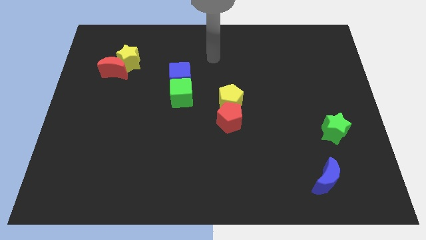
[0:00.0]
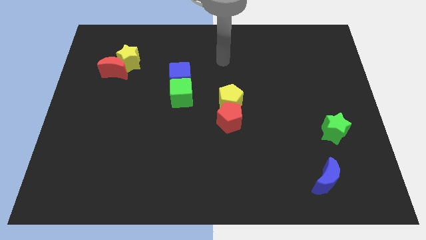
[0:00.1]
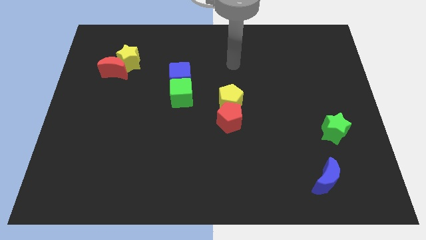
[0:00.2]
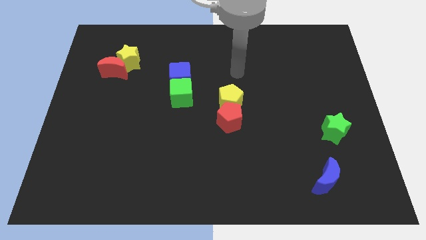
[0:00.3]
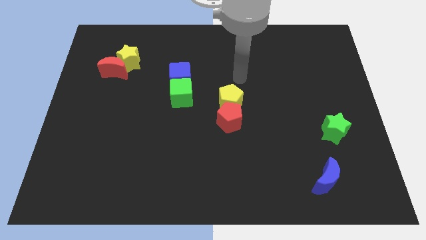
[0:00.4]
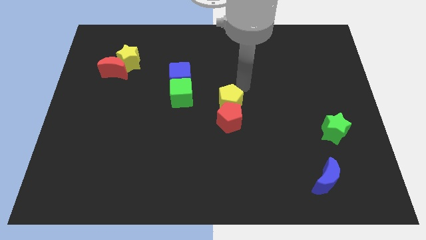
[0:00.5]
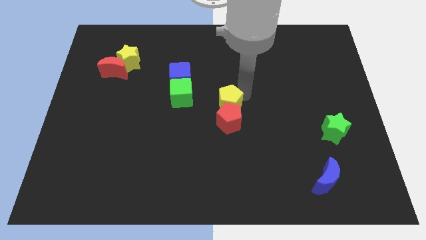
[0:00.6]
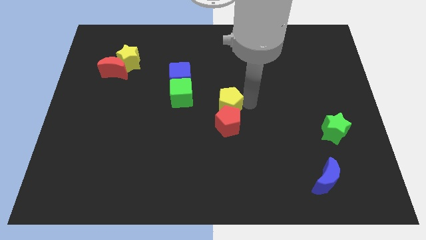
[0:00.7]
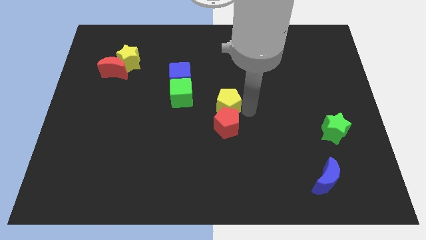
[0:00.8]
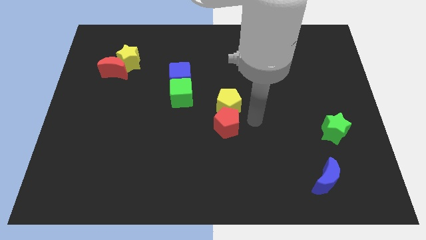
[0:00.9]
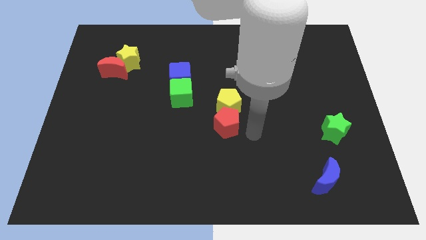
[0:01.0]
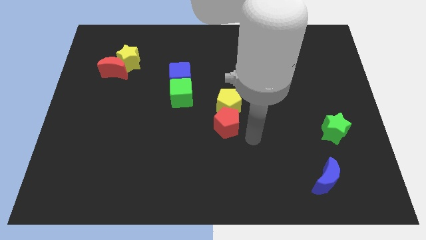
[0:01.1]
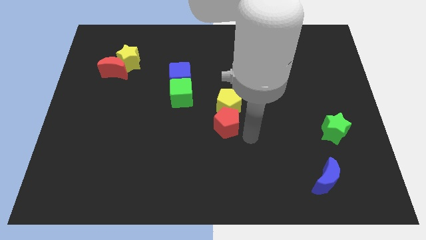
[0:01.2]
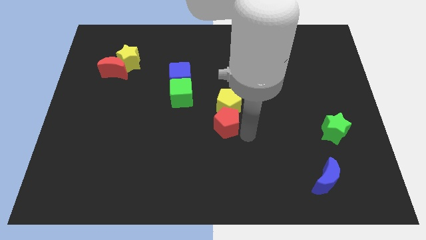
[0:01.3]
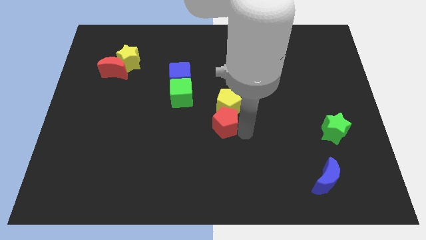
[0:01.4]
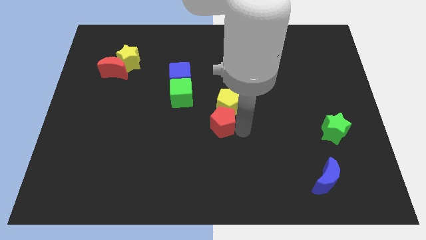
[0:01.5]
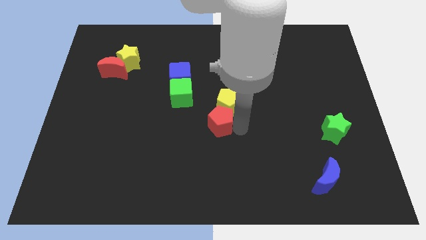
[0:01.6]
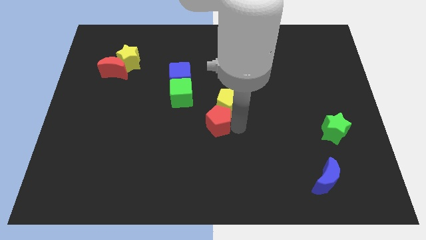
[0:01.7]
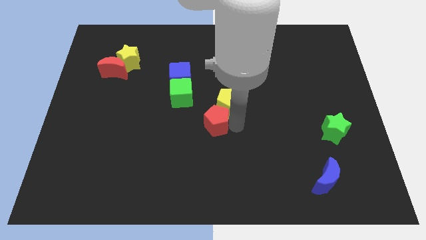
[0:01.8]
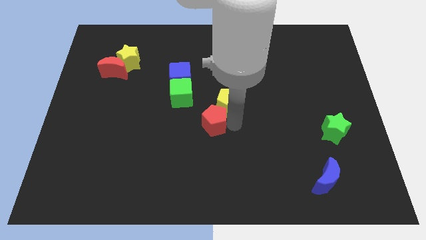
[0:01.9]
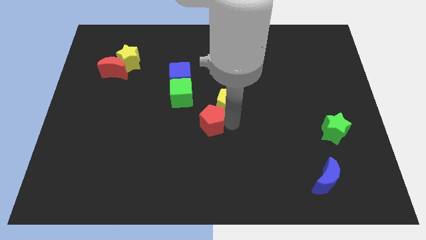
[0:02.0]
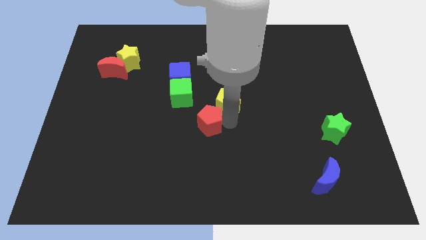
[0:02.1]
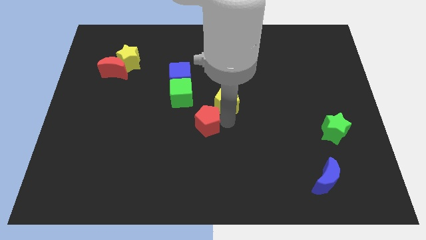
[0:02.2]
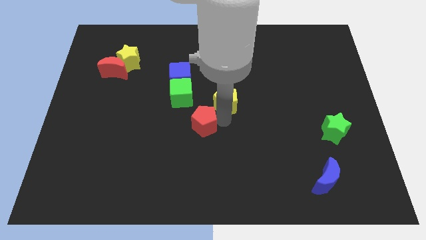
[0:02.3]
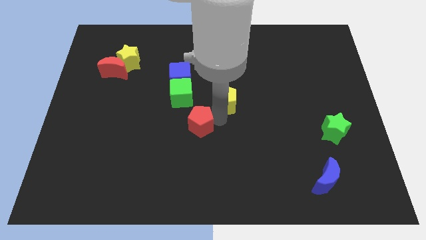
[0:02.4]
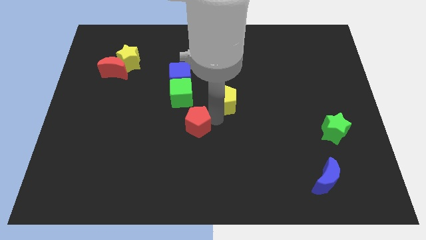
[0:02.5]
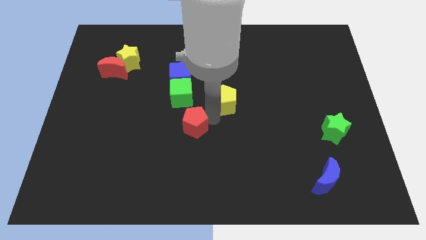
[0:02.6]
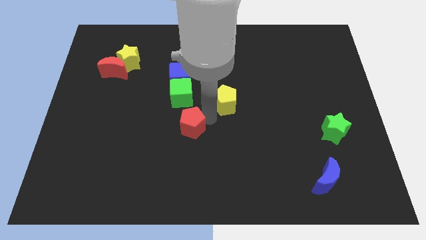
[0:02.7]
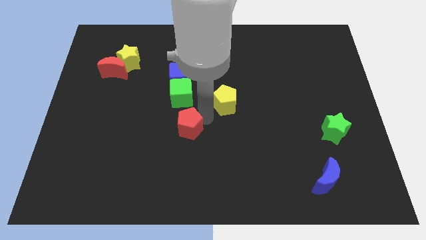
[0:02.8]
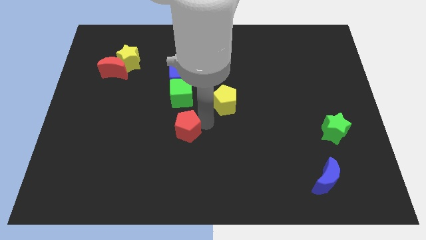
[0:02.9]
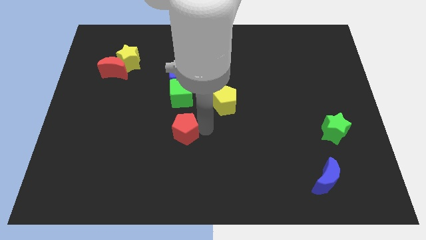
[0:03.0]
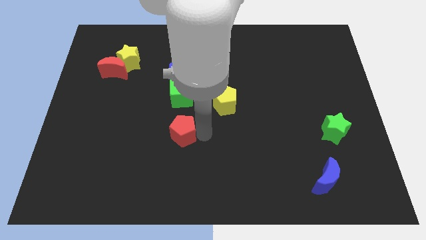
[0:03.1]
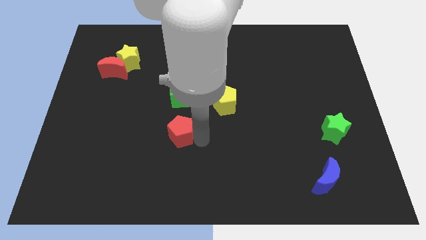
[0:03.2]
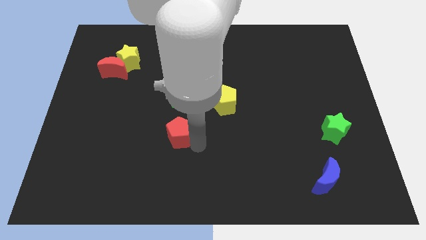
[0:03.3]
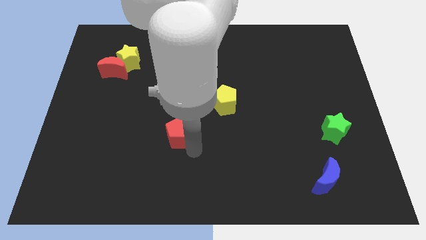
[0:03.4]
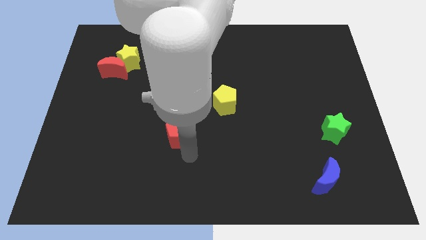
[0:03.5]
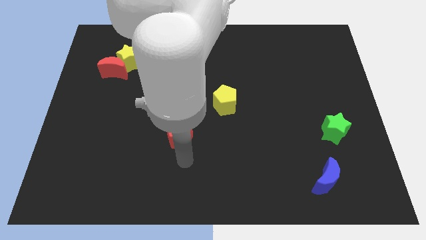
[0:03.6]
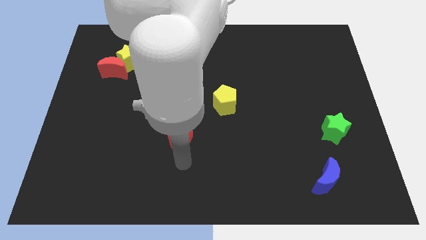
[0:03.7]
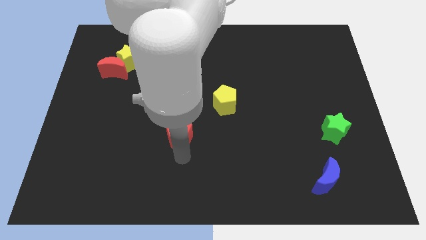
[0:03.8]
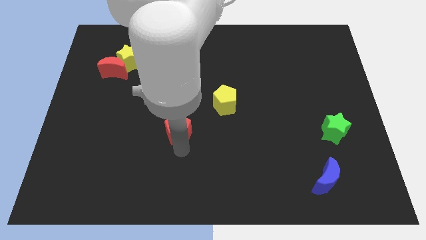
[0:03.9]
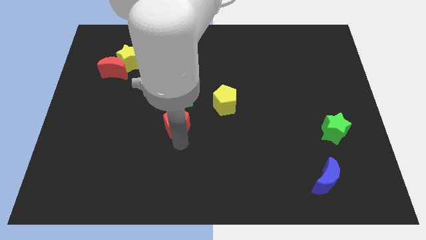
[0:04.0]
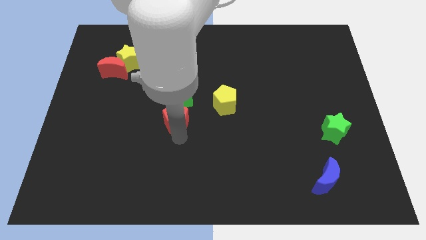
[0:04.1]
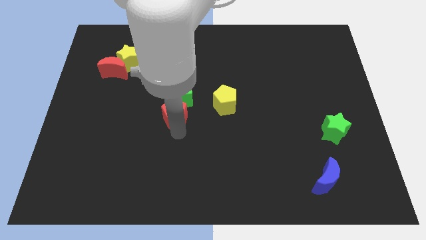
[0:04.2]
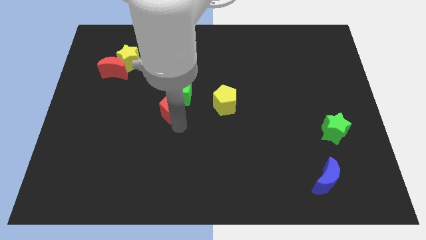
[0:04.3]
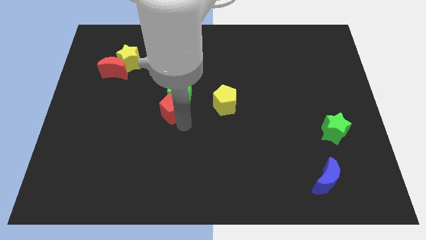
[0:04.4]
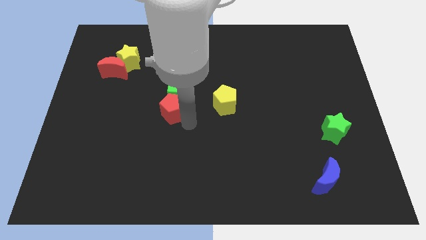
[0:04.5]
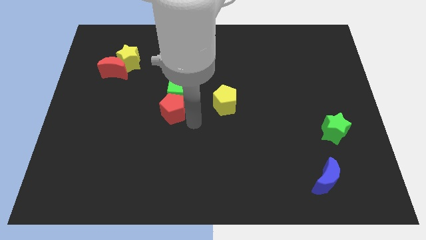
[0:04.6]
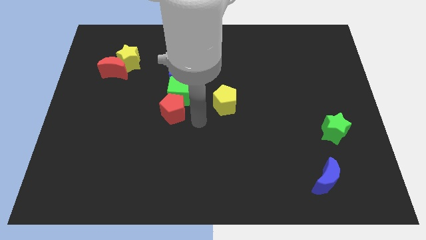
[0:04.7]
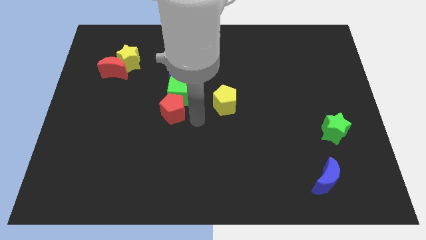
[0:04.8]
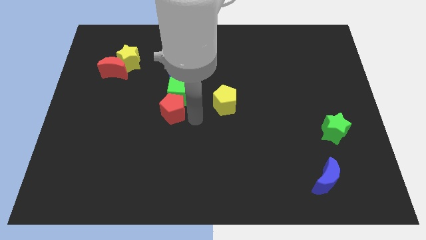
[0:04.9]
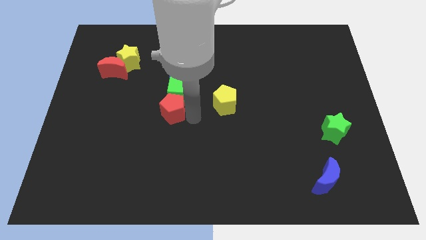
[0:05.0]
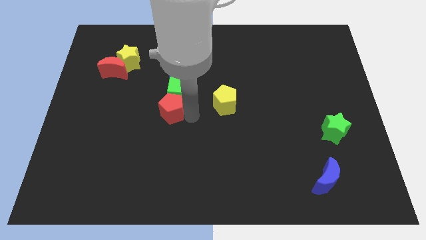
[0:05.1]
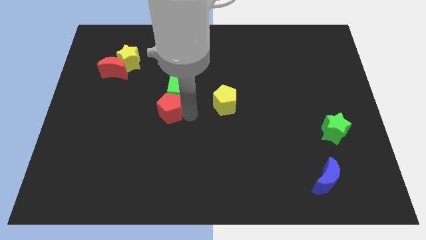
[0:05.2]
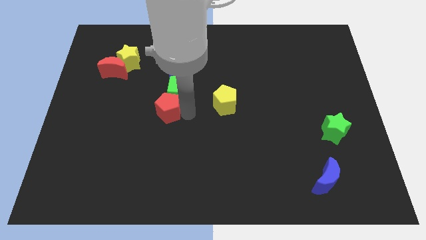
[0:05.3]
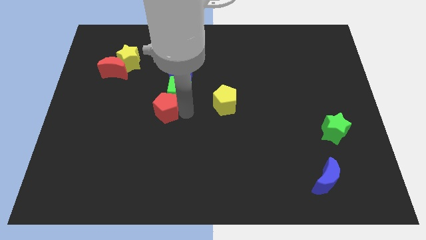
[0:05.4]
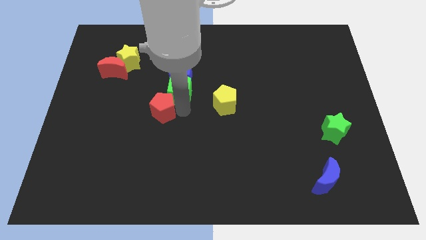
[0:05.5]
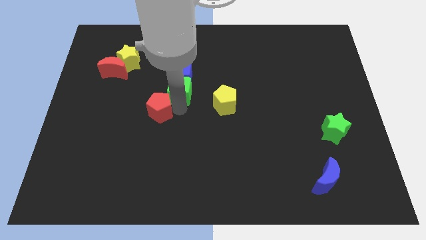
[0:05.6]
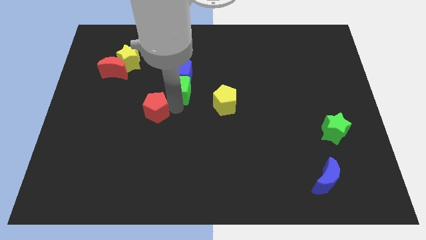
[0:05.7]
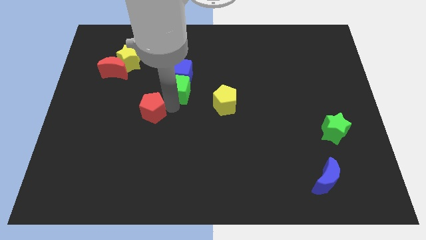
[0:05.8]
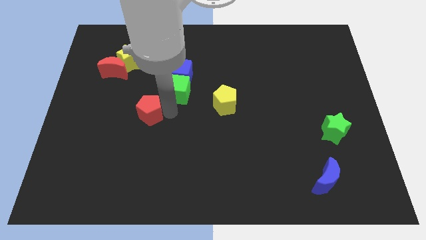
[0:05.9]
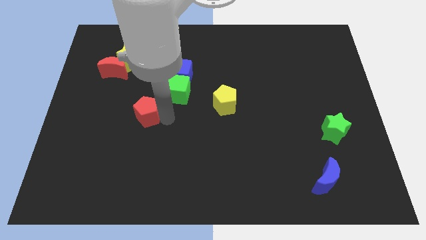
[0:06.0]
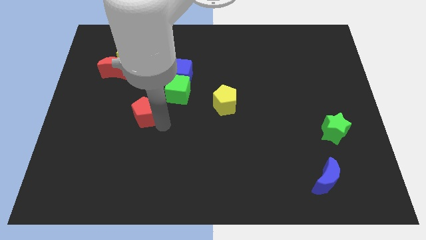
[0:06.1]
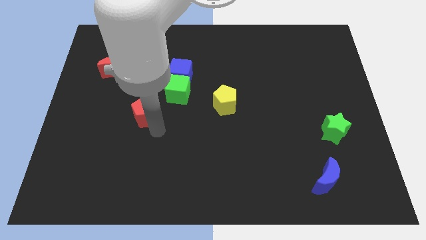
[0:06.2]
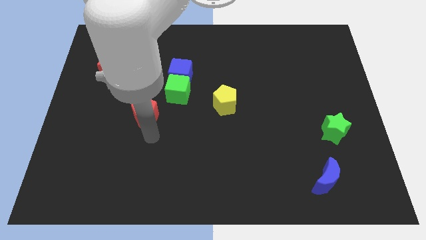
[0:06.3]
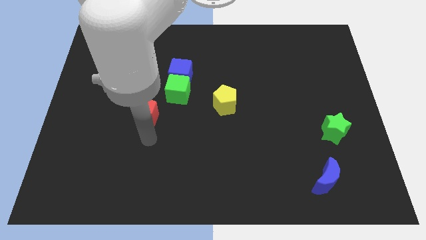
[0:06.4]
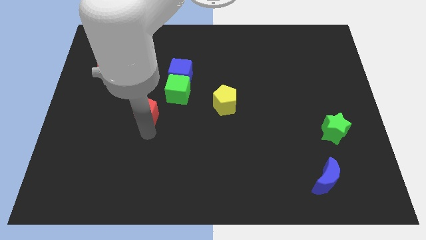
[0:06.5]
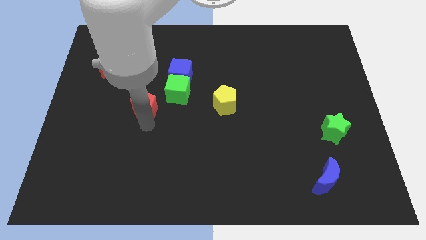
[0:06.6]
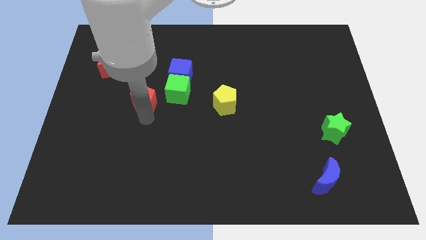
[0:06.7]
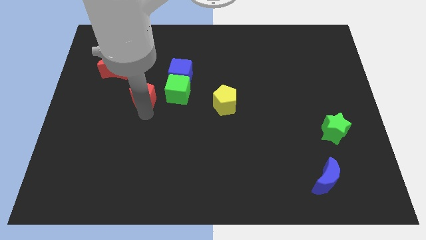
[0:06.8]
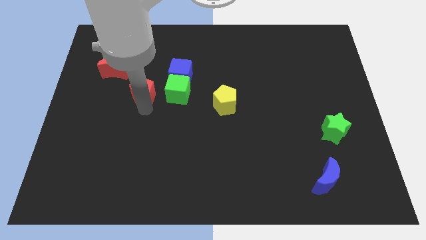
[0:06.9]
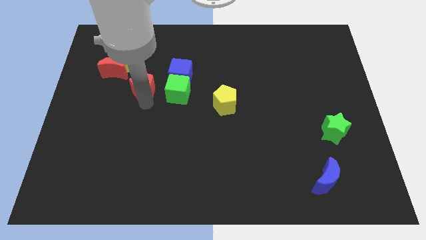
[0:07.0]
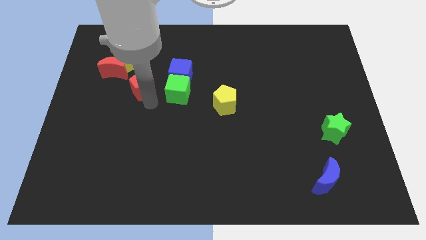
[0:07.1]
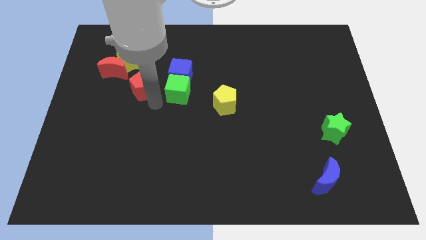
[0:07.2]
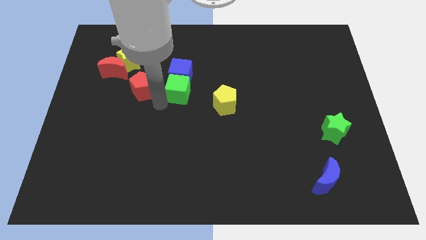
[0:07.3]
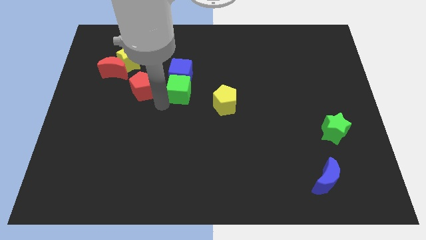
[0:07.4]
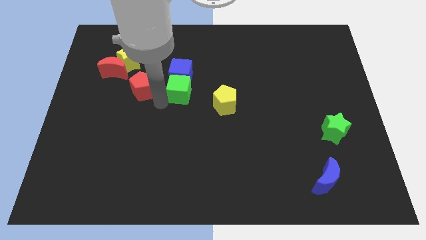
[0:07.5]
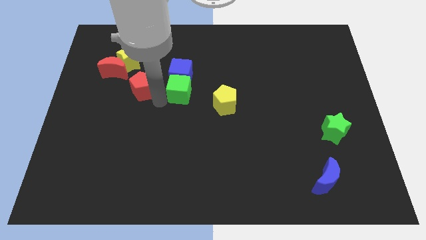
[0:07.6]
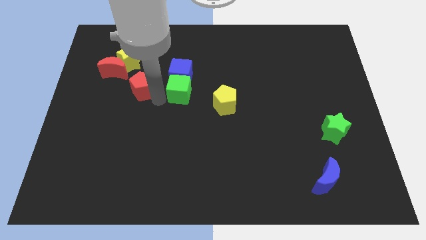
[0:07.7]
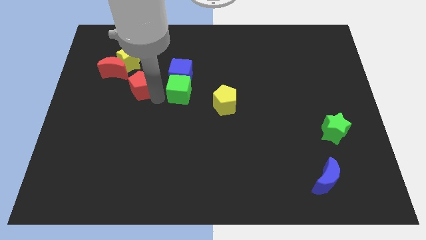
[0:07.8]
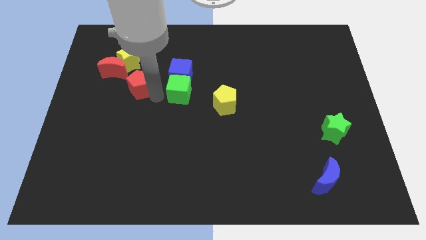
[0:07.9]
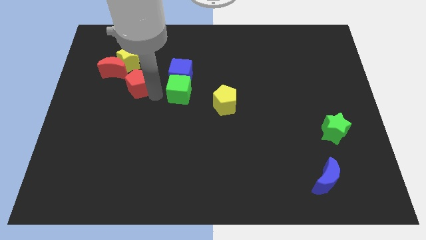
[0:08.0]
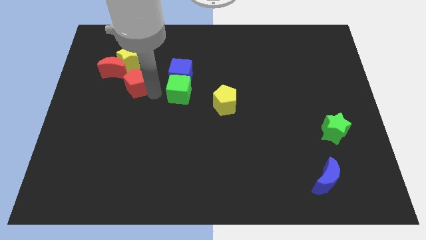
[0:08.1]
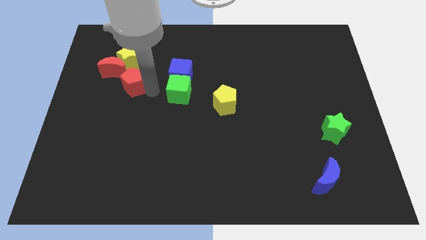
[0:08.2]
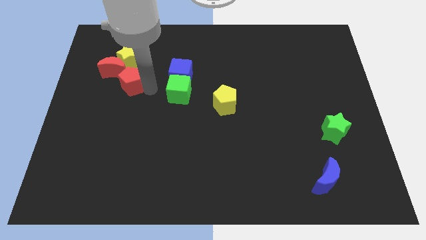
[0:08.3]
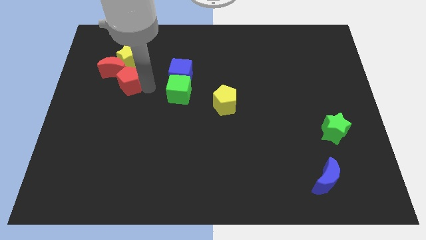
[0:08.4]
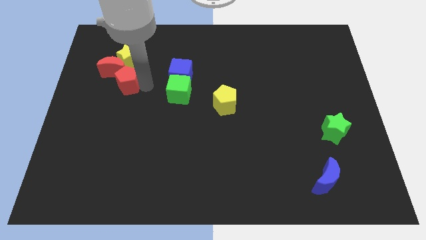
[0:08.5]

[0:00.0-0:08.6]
put the red pentagon next to the red moon
